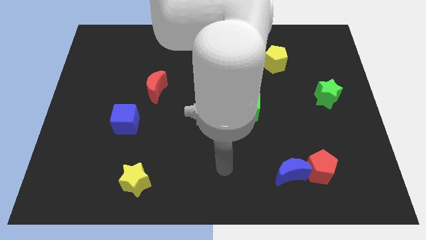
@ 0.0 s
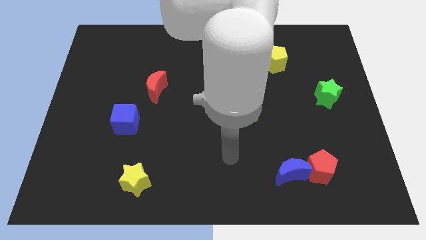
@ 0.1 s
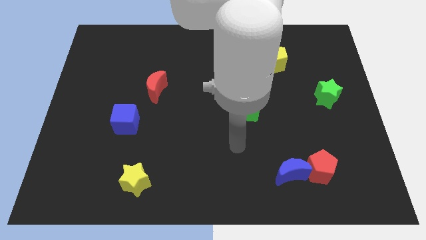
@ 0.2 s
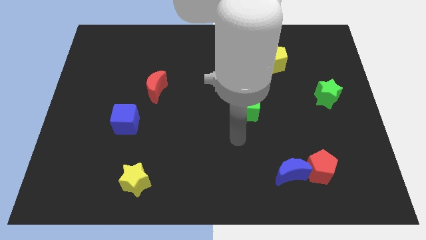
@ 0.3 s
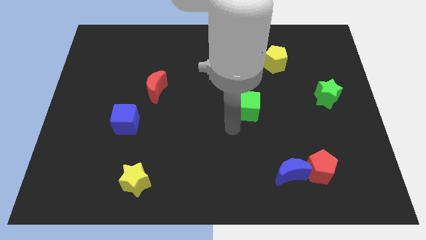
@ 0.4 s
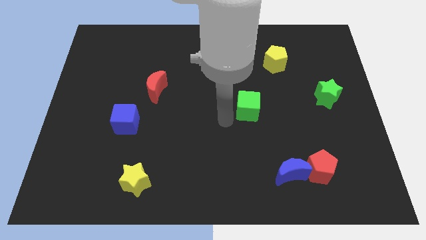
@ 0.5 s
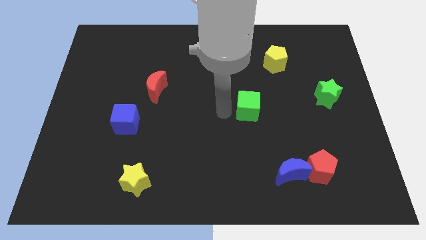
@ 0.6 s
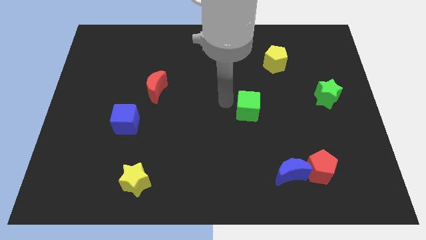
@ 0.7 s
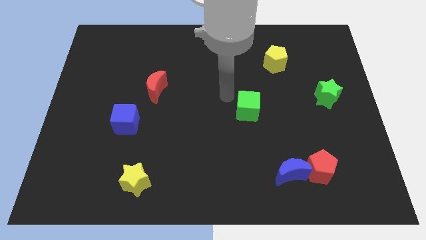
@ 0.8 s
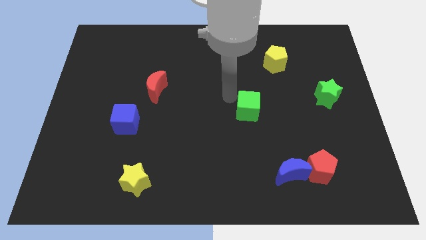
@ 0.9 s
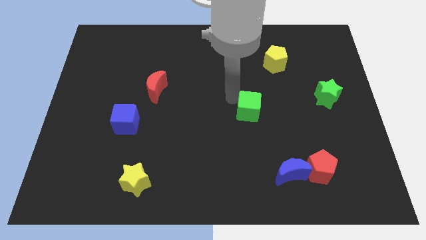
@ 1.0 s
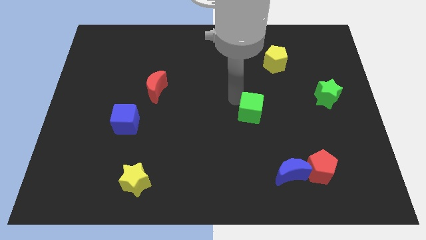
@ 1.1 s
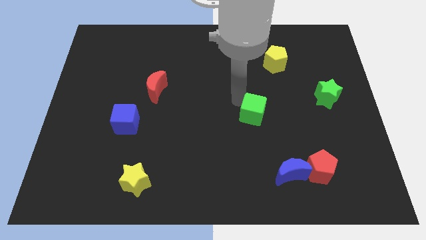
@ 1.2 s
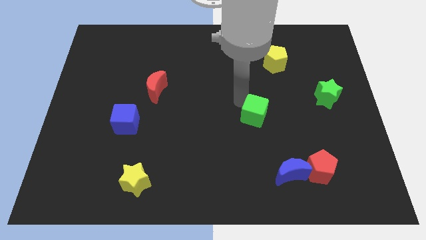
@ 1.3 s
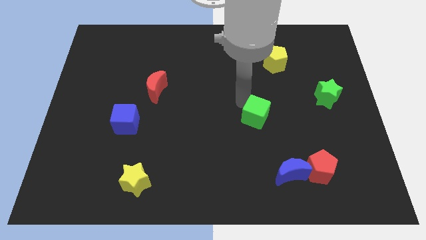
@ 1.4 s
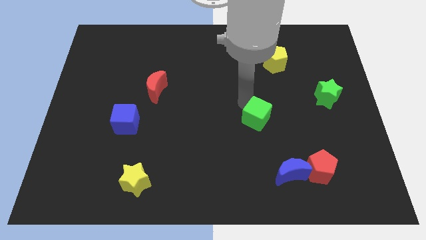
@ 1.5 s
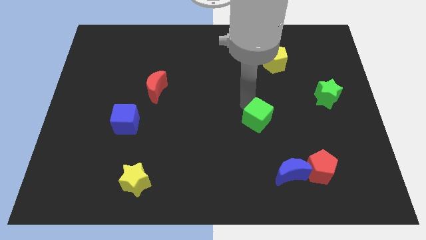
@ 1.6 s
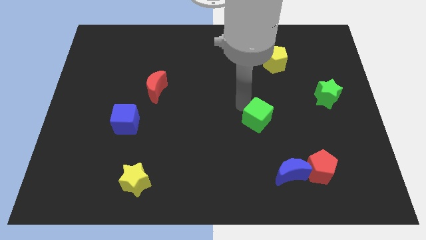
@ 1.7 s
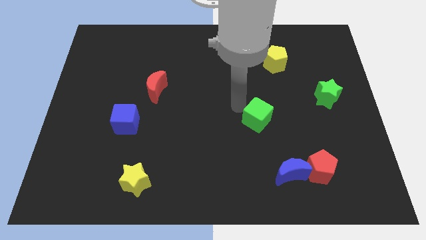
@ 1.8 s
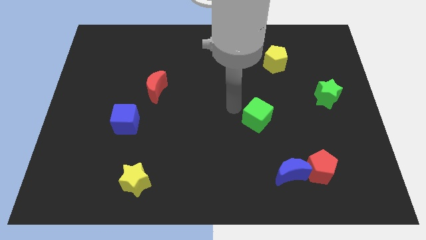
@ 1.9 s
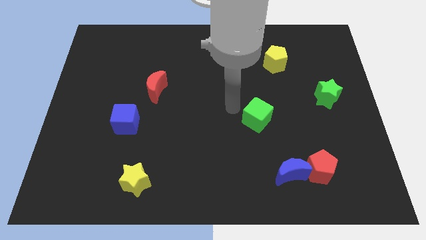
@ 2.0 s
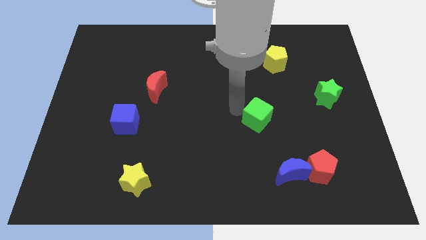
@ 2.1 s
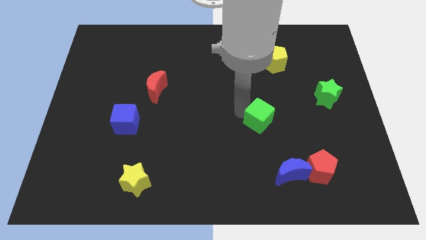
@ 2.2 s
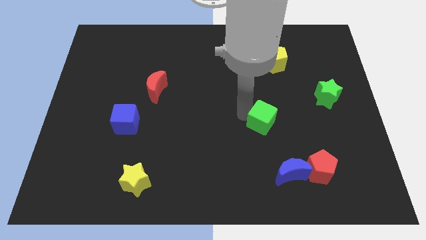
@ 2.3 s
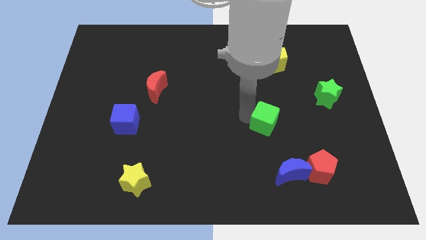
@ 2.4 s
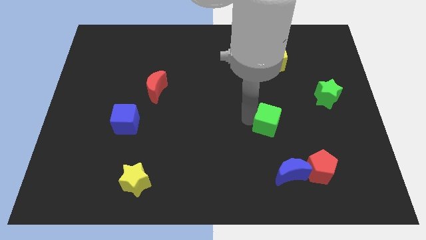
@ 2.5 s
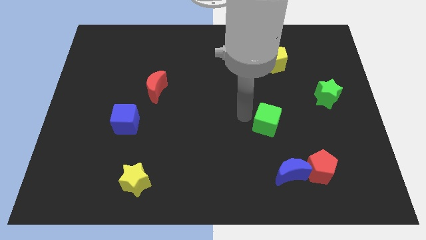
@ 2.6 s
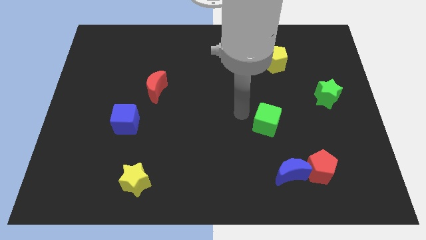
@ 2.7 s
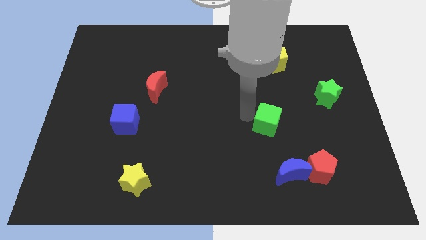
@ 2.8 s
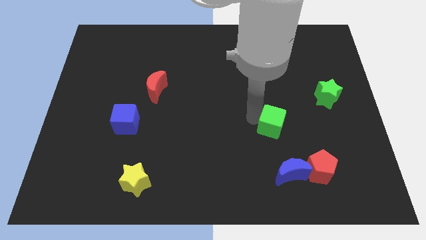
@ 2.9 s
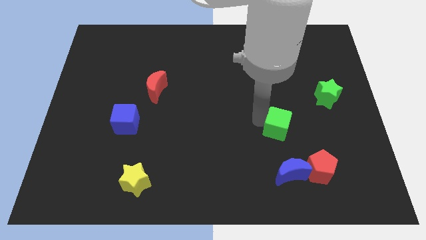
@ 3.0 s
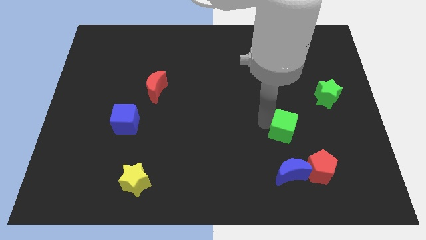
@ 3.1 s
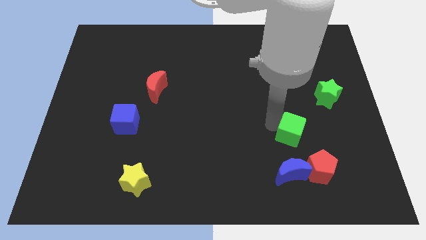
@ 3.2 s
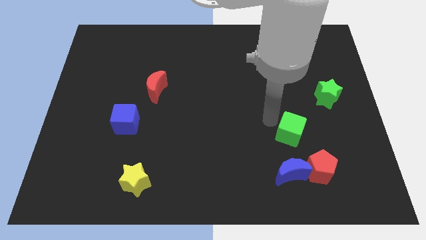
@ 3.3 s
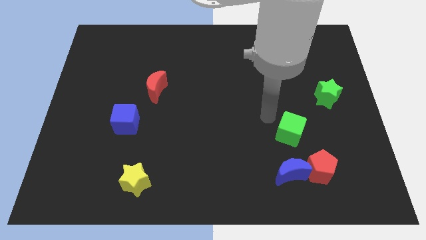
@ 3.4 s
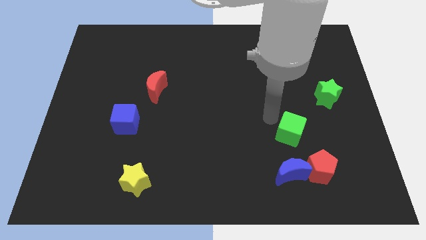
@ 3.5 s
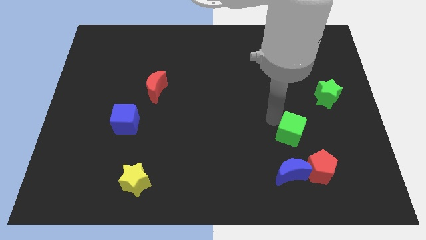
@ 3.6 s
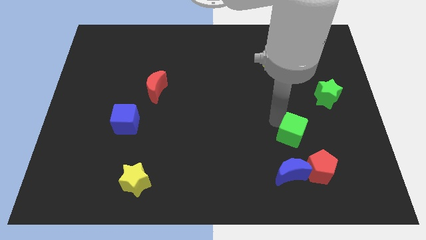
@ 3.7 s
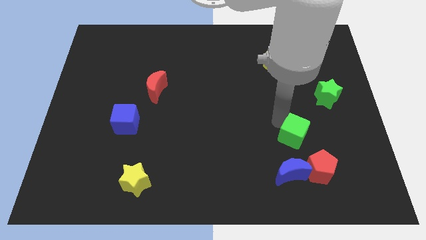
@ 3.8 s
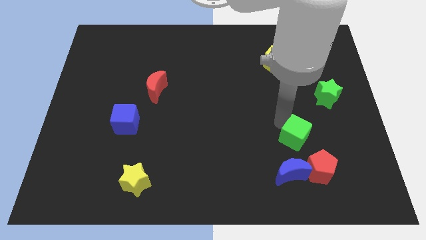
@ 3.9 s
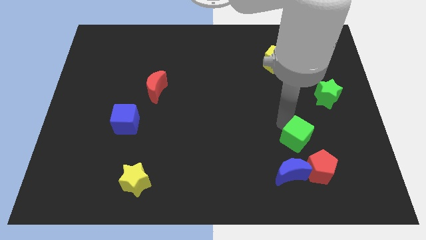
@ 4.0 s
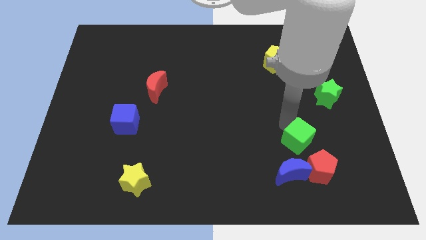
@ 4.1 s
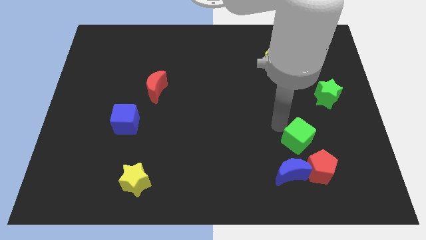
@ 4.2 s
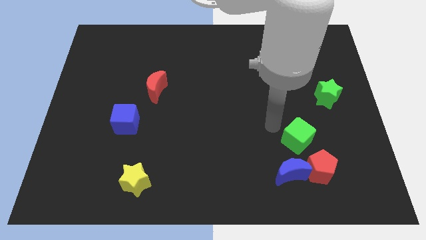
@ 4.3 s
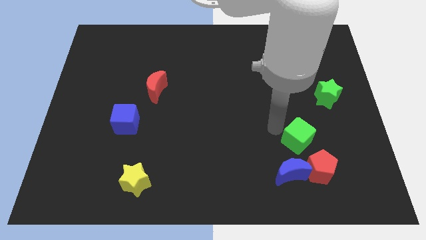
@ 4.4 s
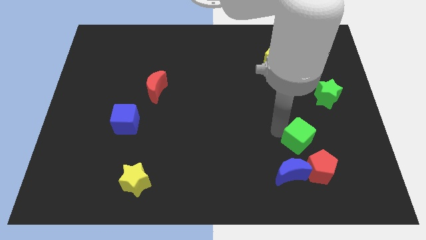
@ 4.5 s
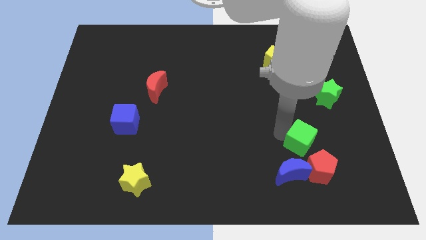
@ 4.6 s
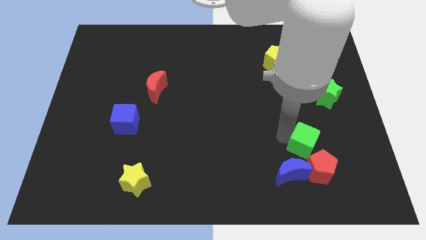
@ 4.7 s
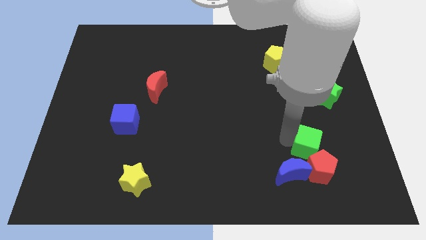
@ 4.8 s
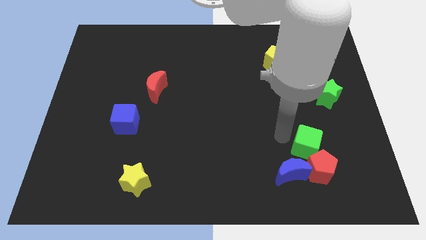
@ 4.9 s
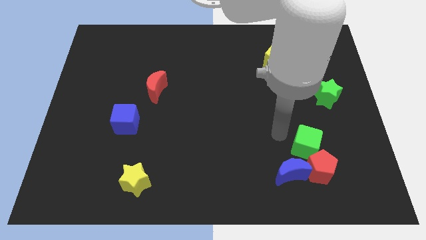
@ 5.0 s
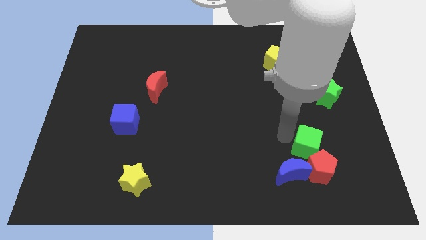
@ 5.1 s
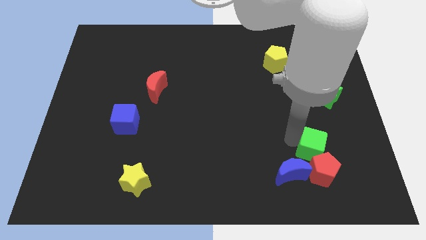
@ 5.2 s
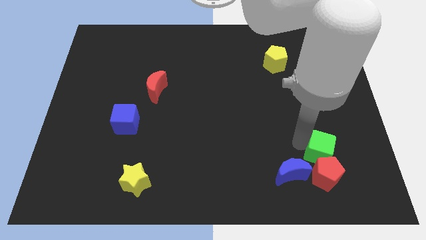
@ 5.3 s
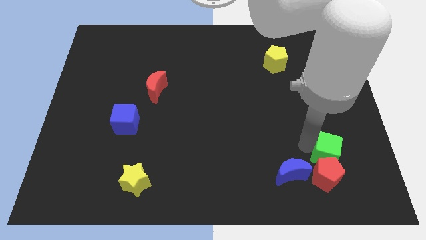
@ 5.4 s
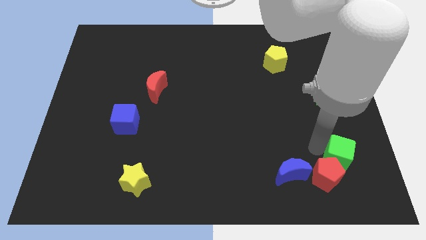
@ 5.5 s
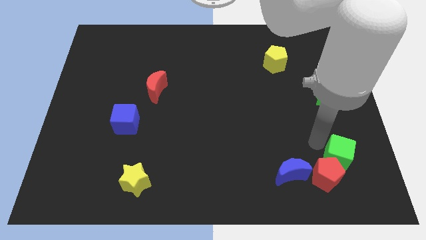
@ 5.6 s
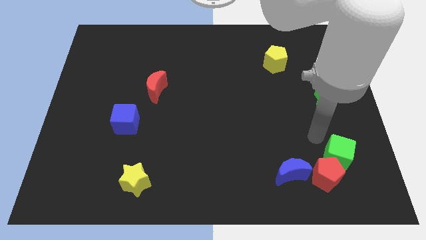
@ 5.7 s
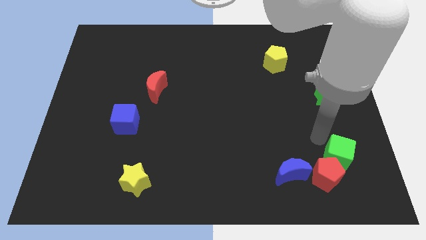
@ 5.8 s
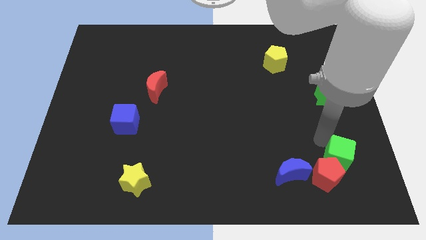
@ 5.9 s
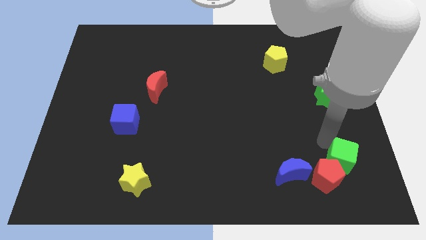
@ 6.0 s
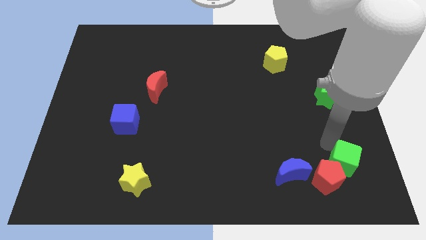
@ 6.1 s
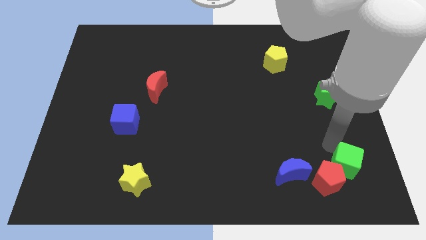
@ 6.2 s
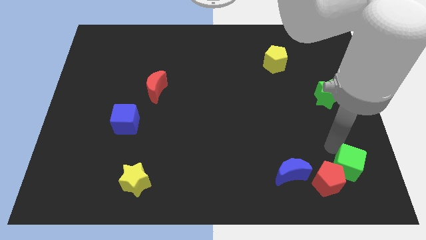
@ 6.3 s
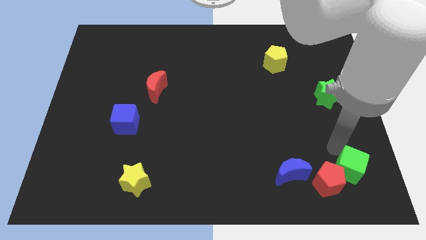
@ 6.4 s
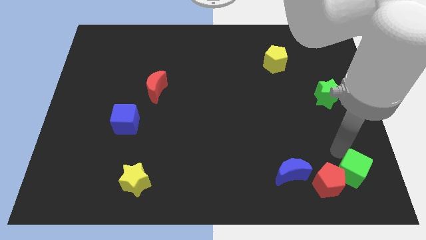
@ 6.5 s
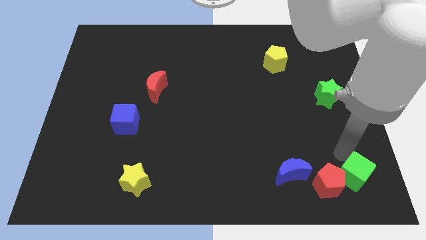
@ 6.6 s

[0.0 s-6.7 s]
slide the green cube to the bottom right of the board

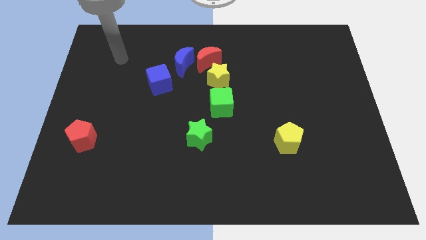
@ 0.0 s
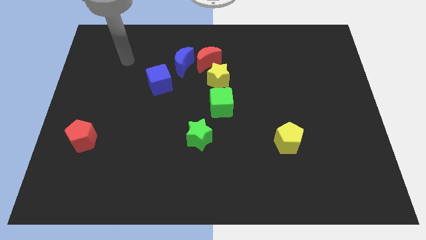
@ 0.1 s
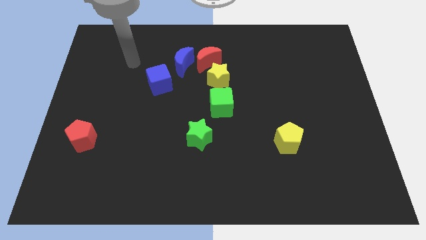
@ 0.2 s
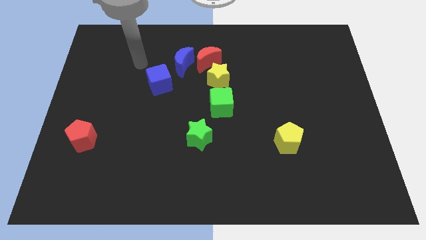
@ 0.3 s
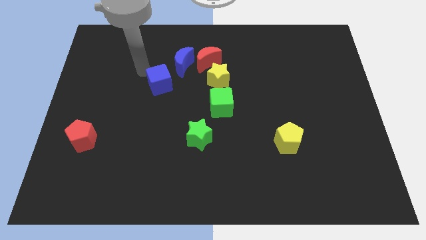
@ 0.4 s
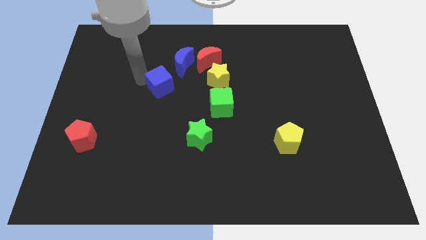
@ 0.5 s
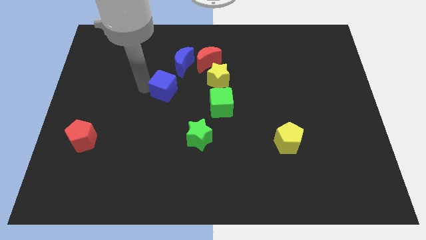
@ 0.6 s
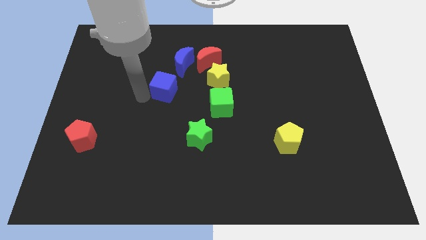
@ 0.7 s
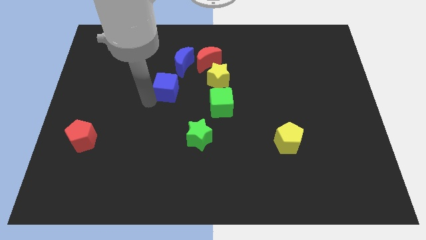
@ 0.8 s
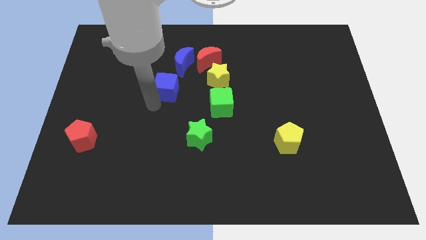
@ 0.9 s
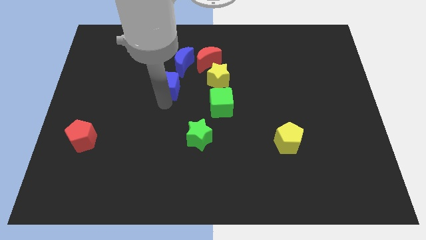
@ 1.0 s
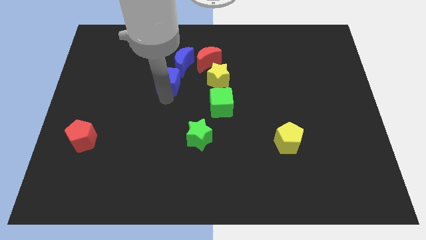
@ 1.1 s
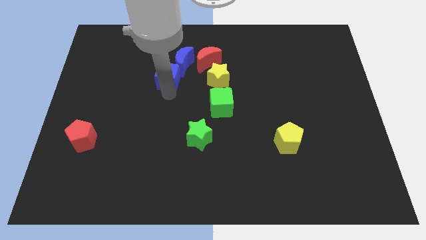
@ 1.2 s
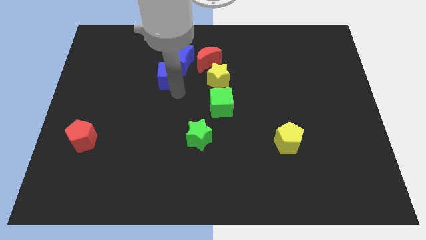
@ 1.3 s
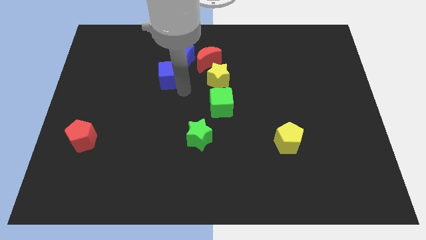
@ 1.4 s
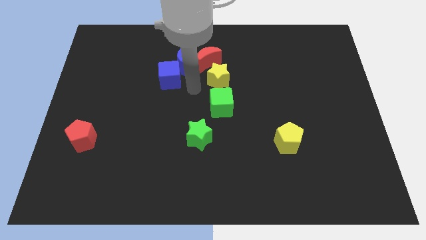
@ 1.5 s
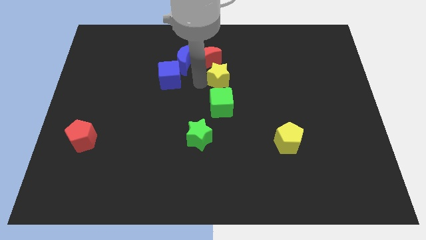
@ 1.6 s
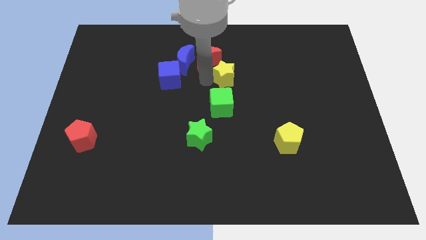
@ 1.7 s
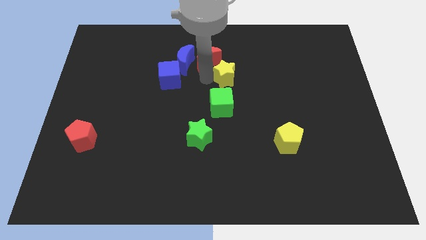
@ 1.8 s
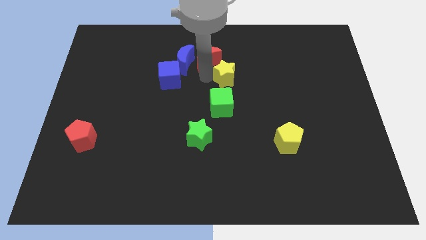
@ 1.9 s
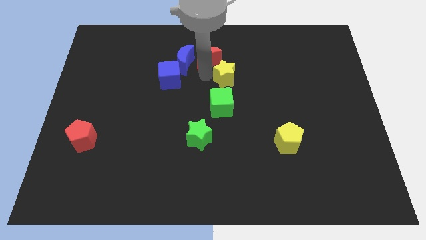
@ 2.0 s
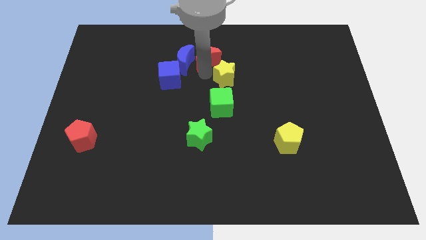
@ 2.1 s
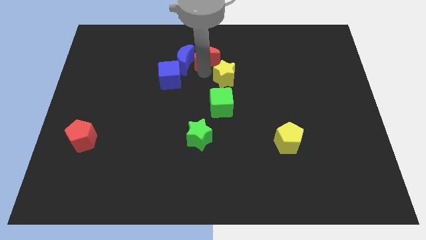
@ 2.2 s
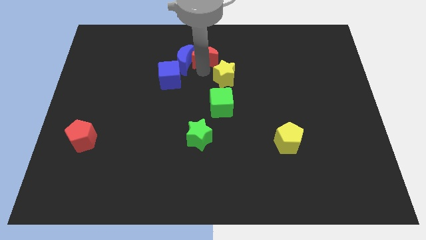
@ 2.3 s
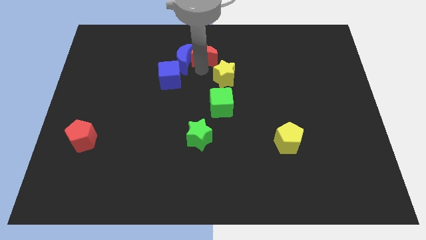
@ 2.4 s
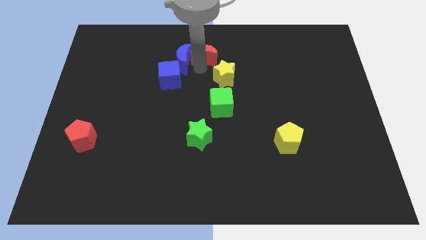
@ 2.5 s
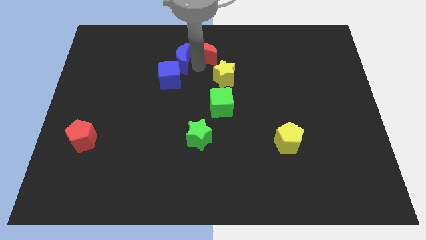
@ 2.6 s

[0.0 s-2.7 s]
slide the red moon to the towards your base
